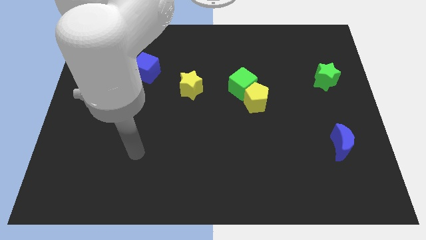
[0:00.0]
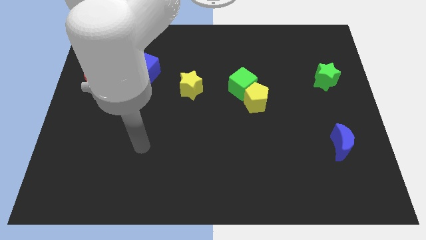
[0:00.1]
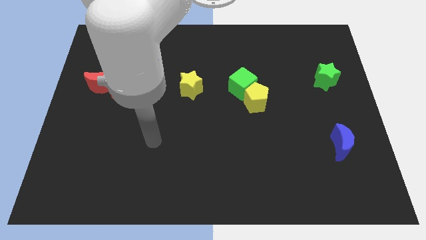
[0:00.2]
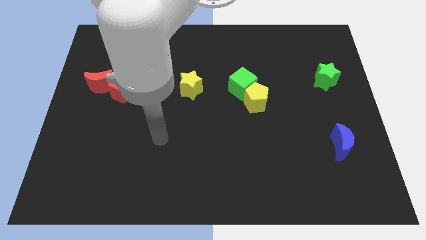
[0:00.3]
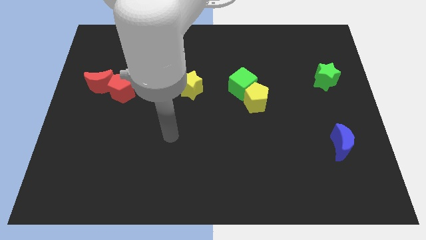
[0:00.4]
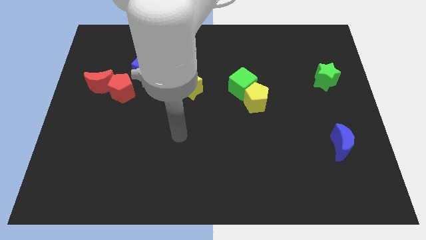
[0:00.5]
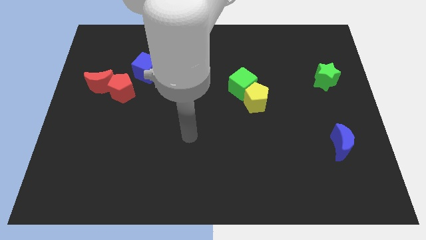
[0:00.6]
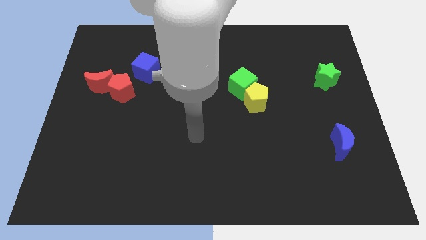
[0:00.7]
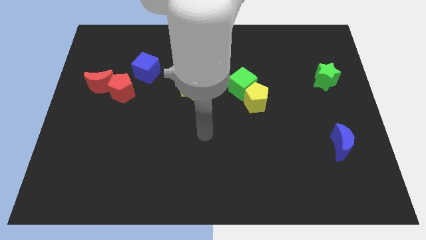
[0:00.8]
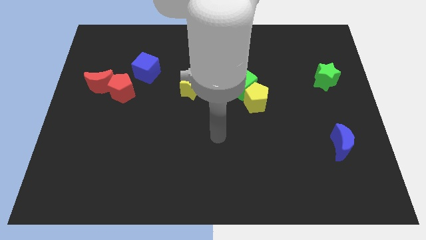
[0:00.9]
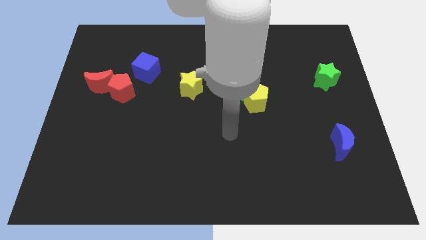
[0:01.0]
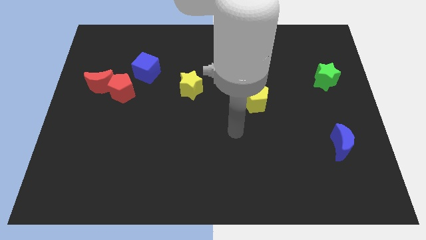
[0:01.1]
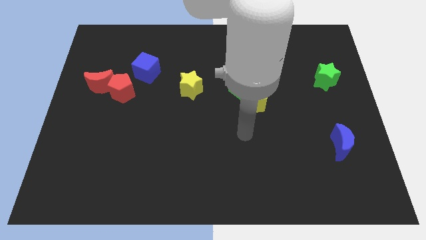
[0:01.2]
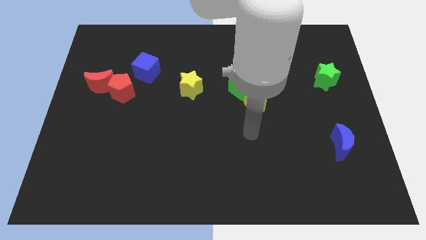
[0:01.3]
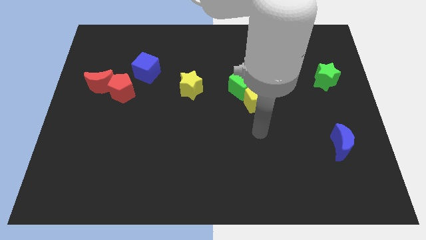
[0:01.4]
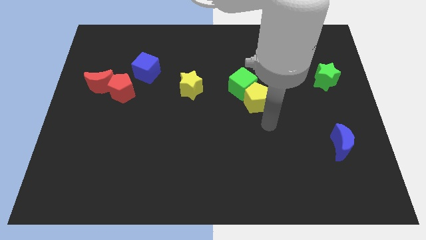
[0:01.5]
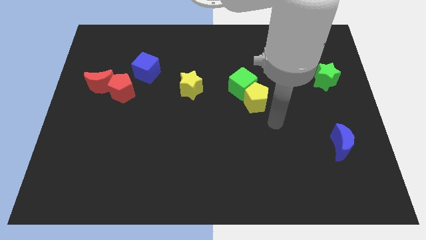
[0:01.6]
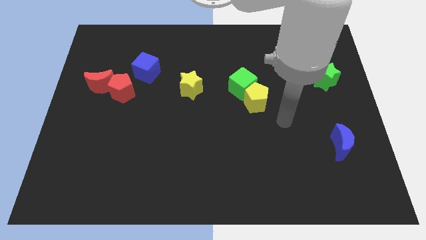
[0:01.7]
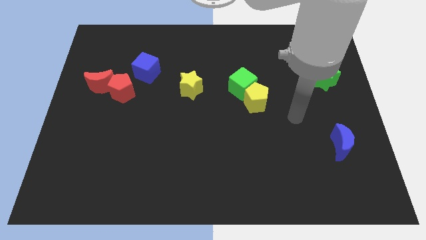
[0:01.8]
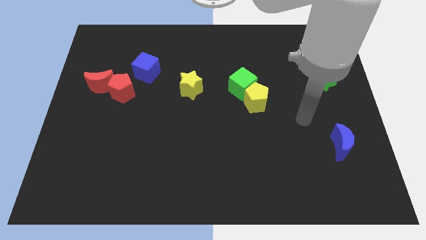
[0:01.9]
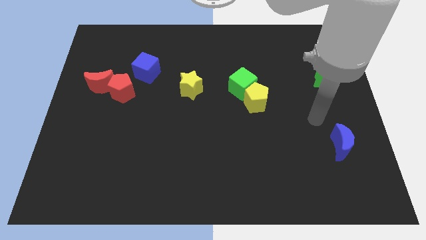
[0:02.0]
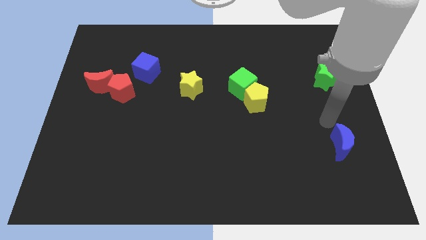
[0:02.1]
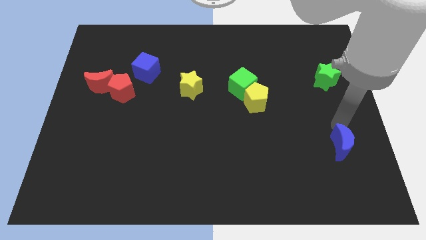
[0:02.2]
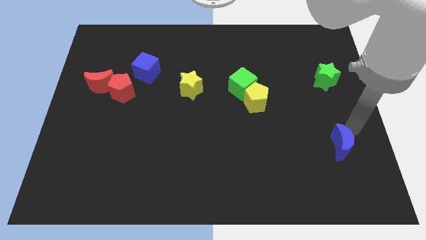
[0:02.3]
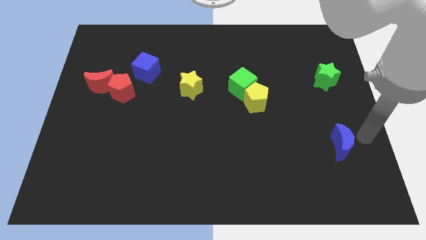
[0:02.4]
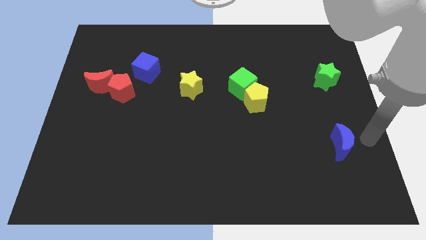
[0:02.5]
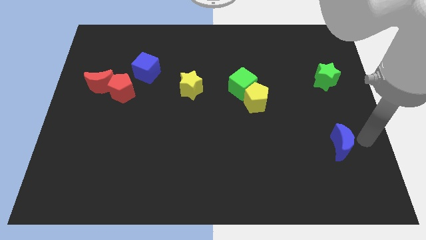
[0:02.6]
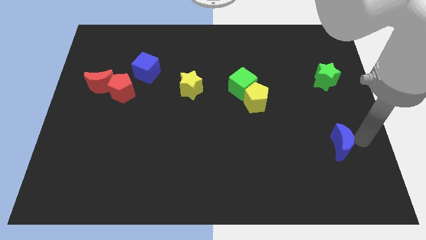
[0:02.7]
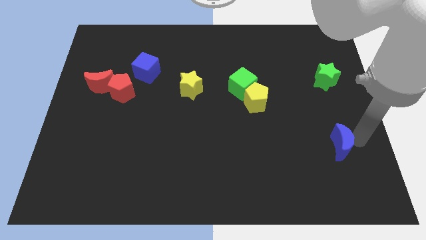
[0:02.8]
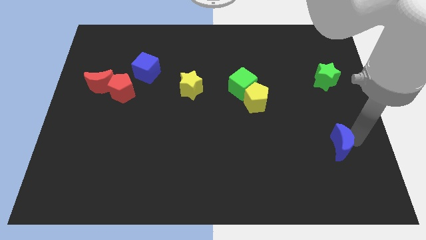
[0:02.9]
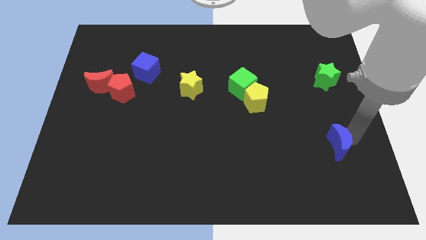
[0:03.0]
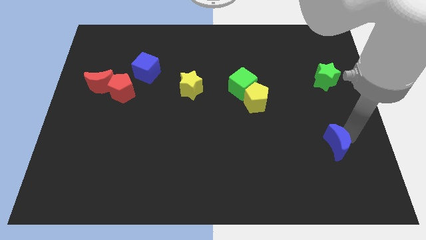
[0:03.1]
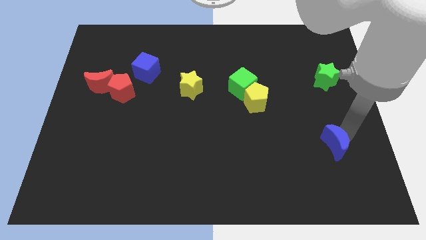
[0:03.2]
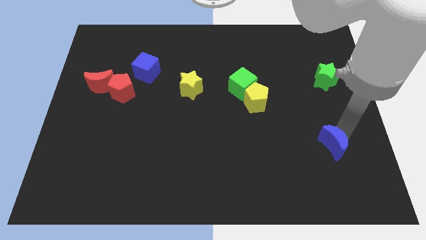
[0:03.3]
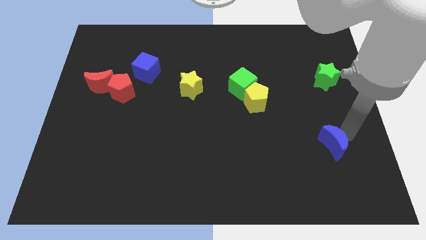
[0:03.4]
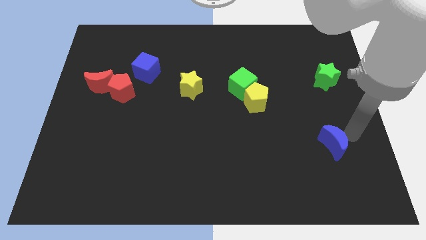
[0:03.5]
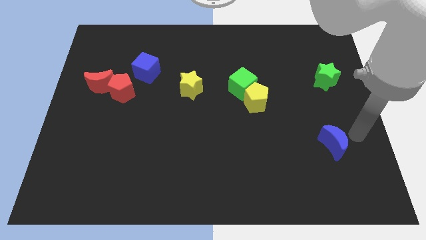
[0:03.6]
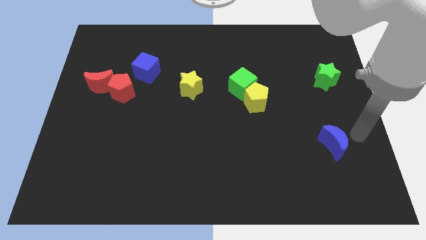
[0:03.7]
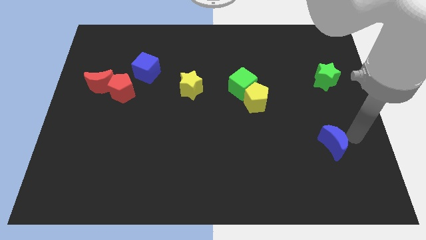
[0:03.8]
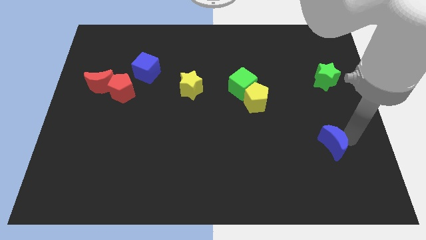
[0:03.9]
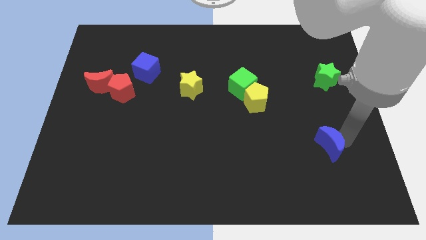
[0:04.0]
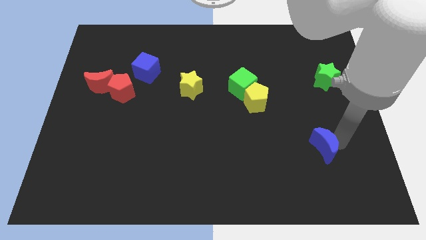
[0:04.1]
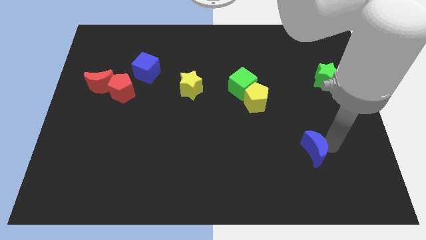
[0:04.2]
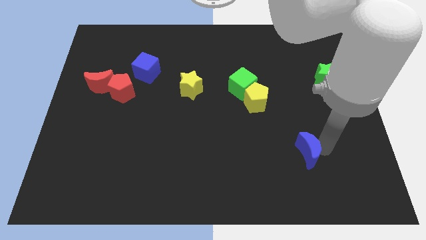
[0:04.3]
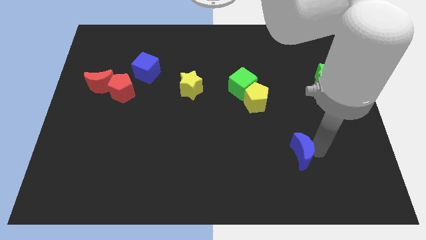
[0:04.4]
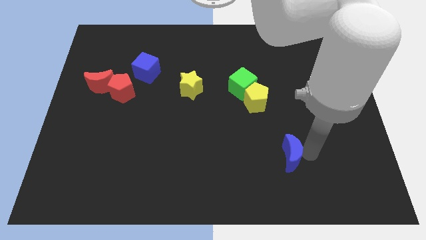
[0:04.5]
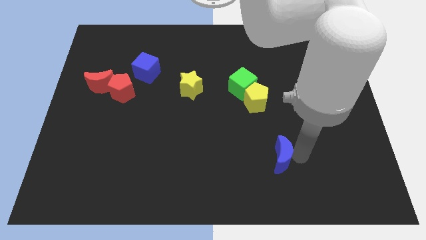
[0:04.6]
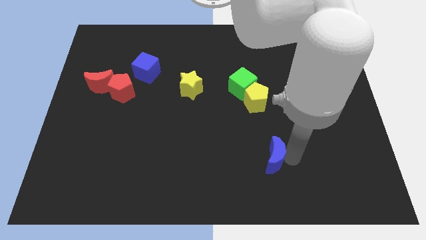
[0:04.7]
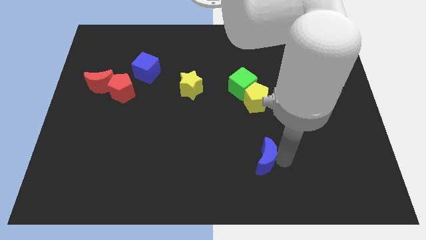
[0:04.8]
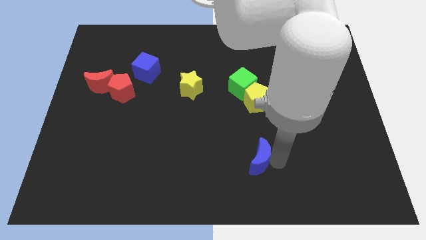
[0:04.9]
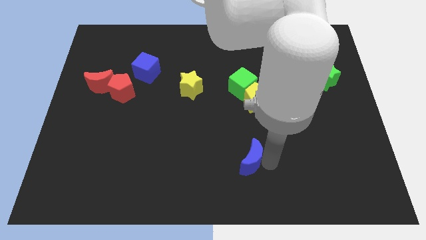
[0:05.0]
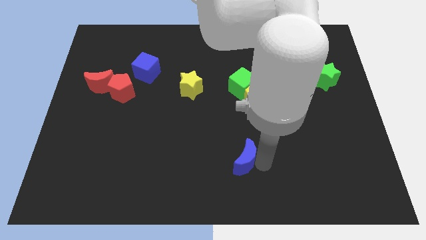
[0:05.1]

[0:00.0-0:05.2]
push the blue moon left

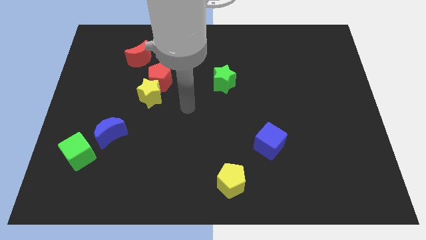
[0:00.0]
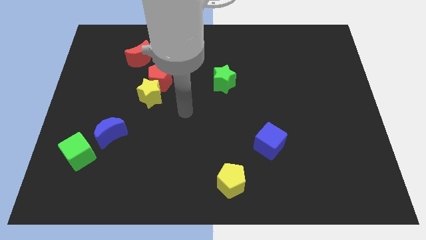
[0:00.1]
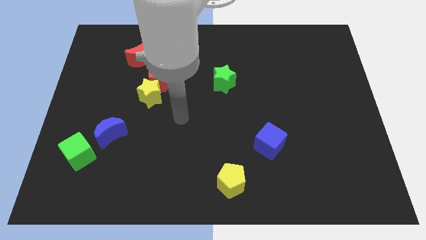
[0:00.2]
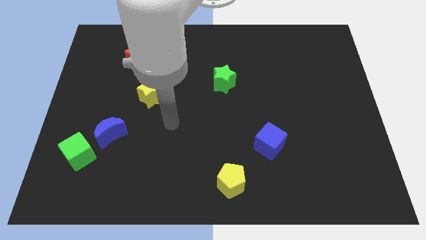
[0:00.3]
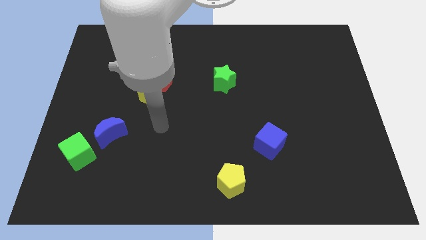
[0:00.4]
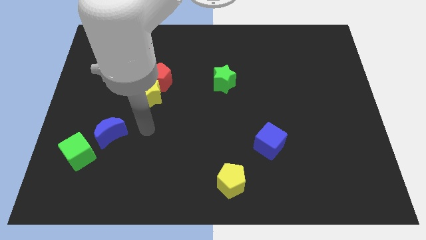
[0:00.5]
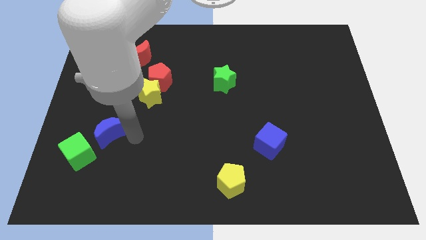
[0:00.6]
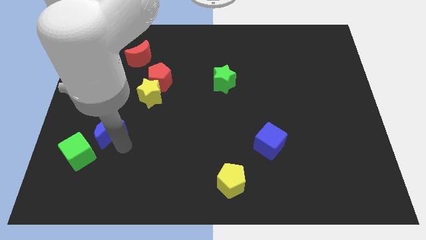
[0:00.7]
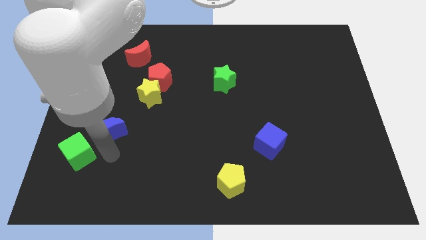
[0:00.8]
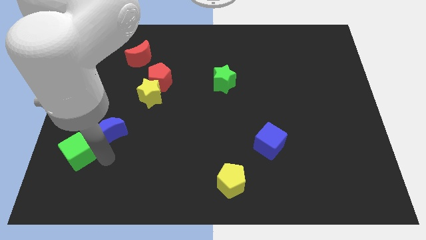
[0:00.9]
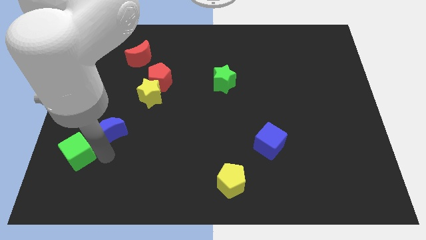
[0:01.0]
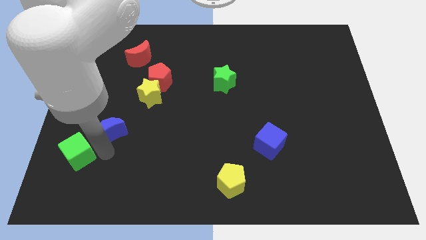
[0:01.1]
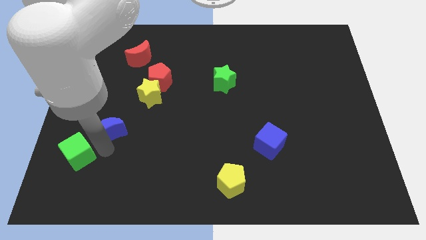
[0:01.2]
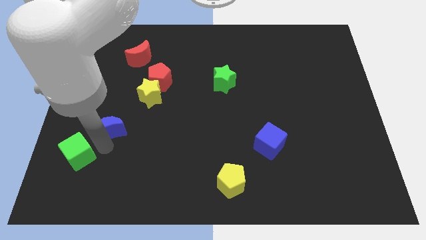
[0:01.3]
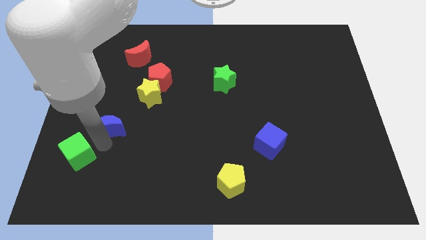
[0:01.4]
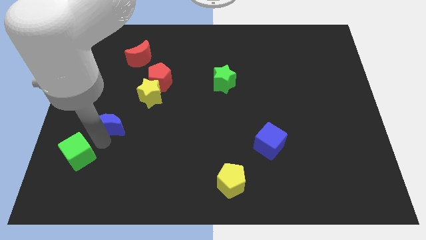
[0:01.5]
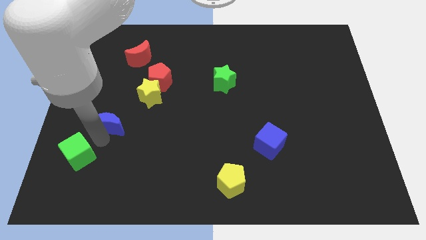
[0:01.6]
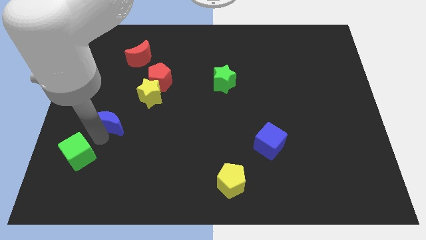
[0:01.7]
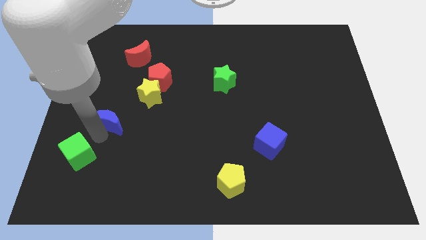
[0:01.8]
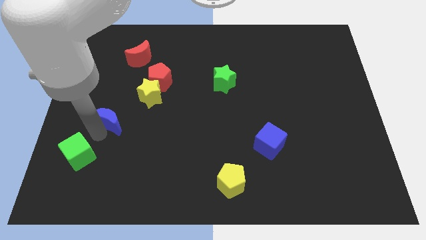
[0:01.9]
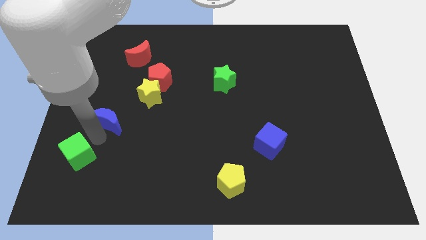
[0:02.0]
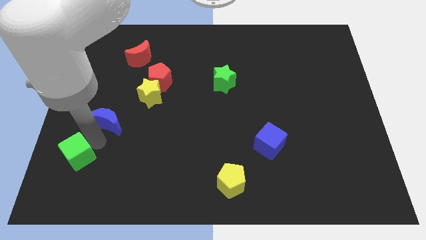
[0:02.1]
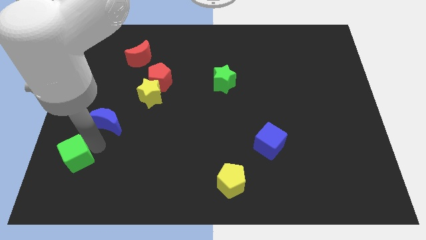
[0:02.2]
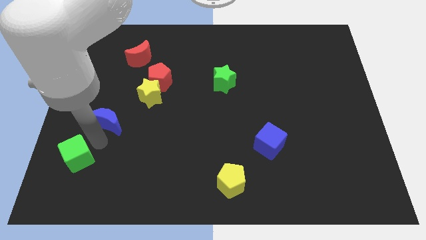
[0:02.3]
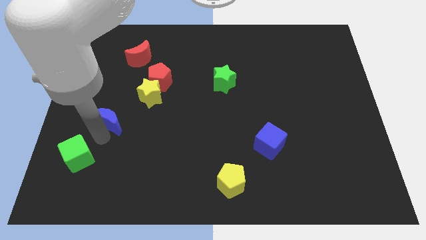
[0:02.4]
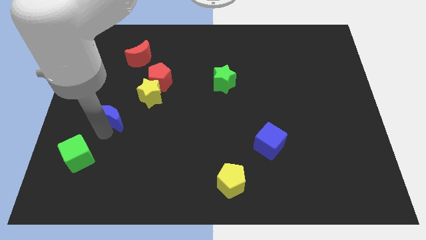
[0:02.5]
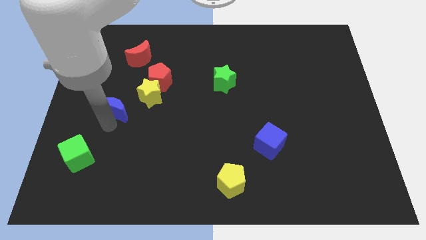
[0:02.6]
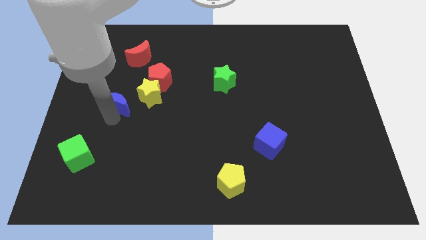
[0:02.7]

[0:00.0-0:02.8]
move the blue moon upwards somewhat
